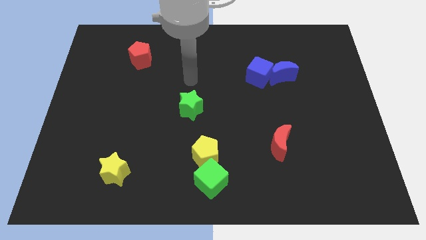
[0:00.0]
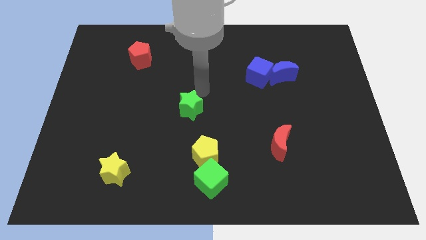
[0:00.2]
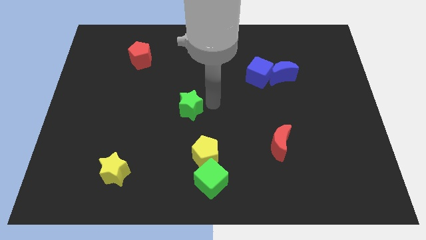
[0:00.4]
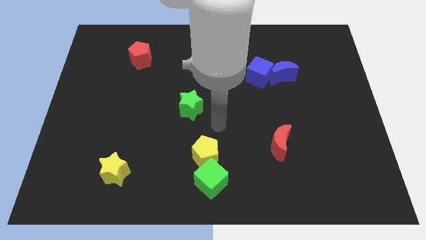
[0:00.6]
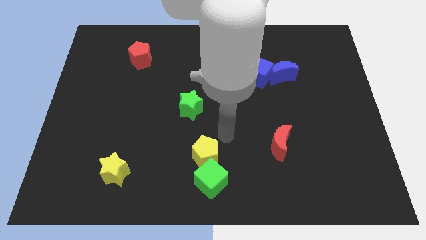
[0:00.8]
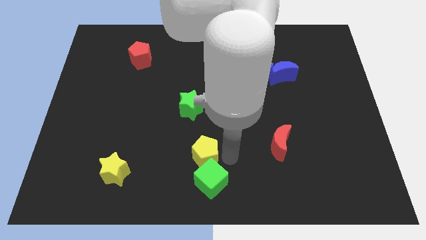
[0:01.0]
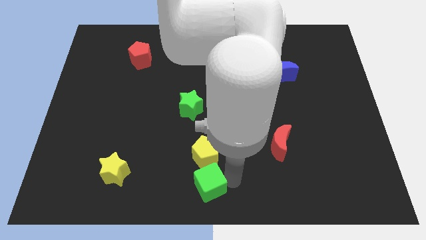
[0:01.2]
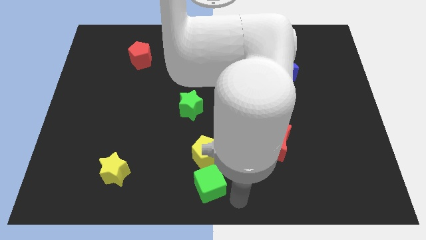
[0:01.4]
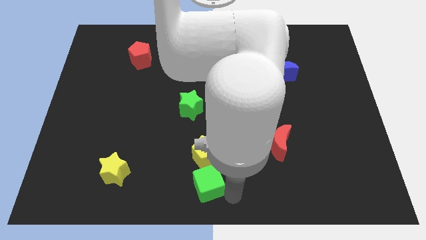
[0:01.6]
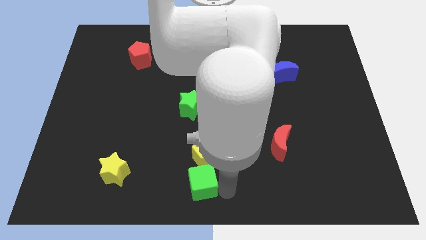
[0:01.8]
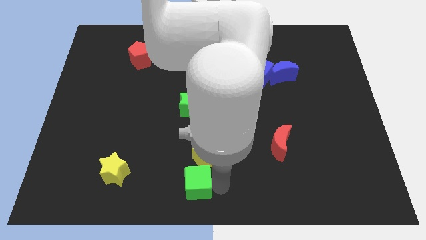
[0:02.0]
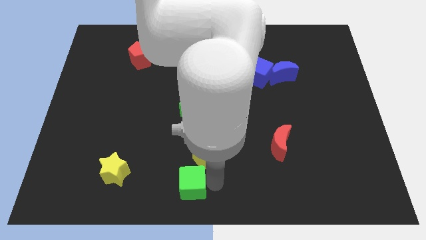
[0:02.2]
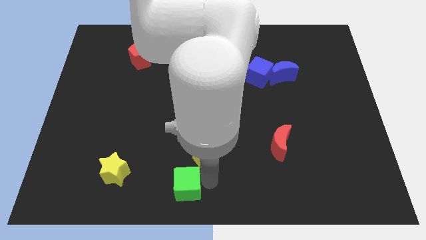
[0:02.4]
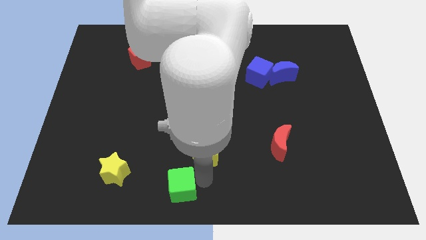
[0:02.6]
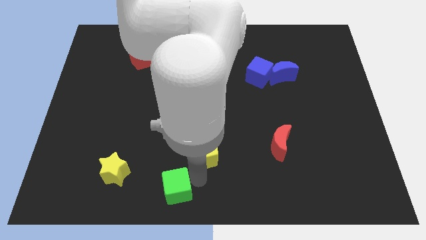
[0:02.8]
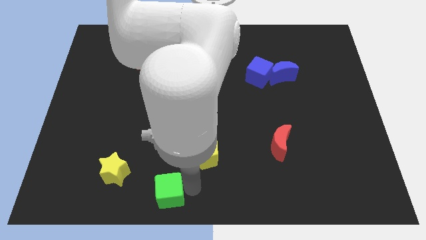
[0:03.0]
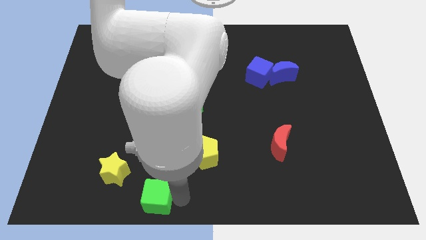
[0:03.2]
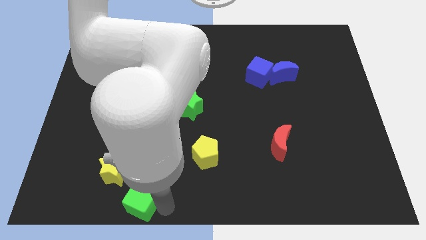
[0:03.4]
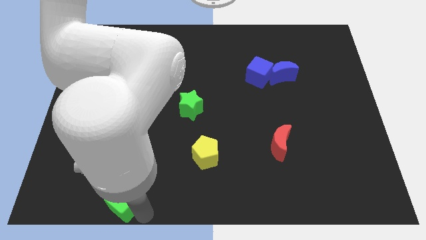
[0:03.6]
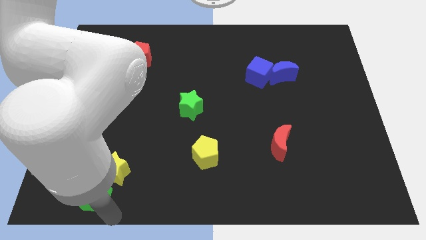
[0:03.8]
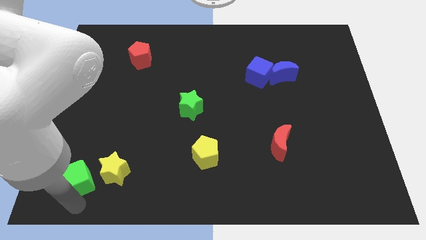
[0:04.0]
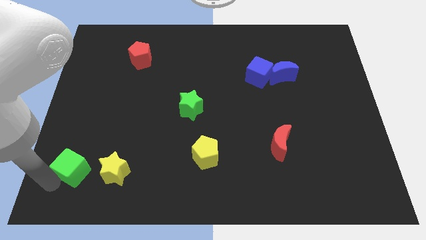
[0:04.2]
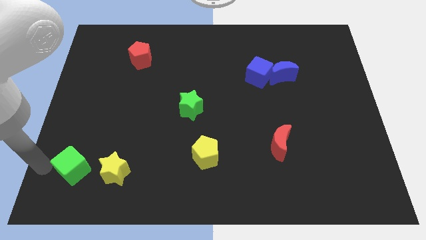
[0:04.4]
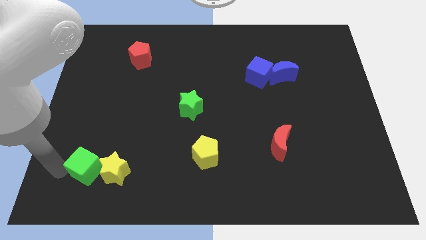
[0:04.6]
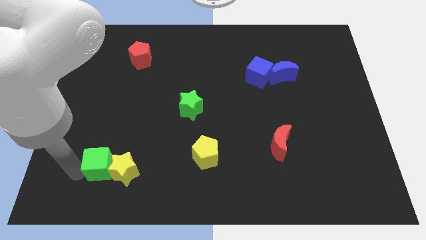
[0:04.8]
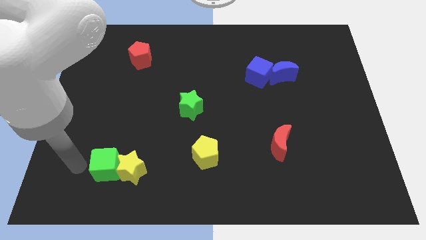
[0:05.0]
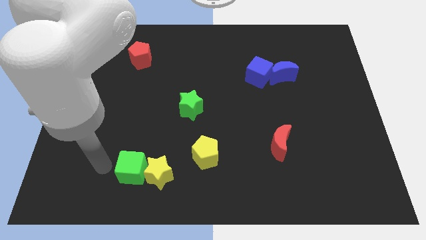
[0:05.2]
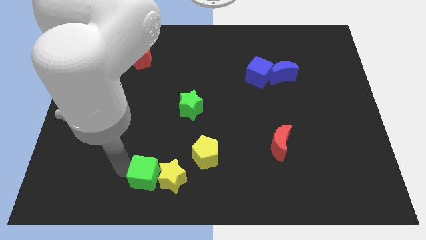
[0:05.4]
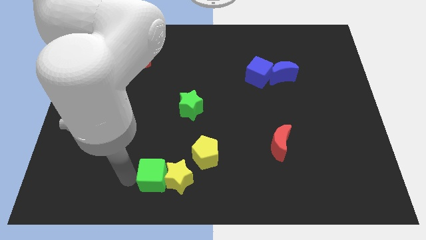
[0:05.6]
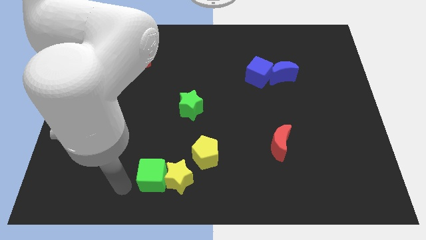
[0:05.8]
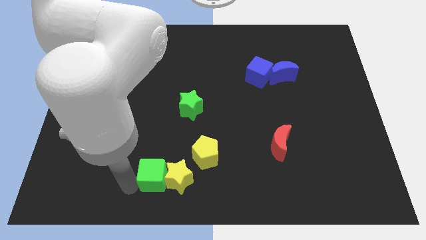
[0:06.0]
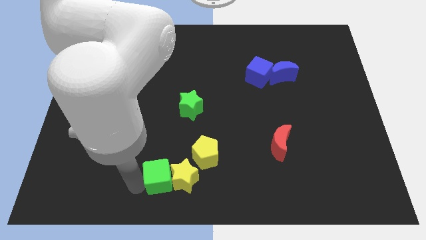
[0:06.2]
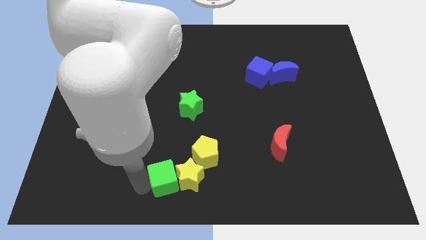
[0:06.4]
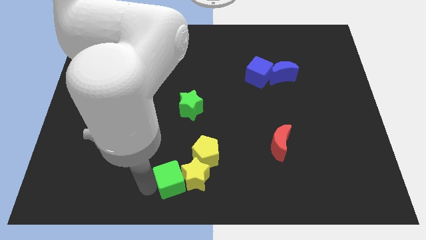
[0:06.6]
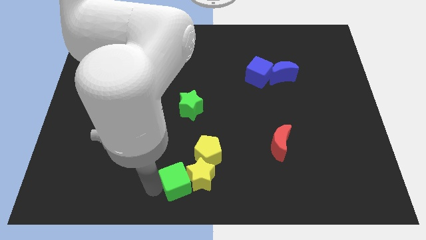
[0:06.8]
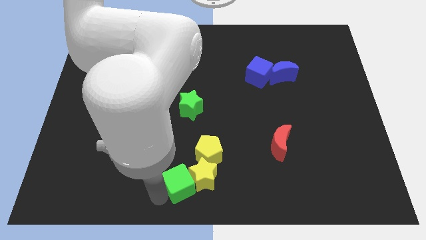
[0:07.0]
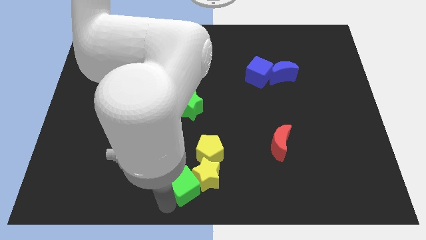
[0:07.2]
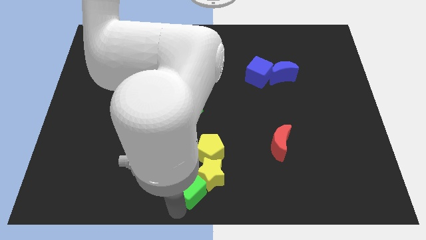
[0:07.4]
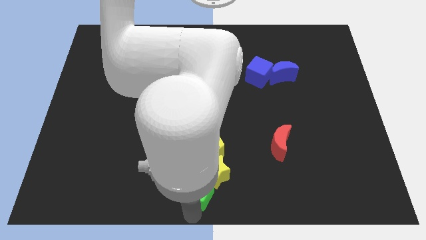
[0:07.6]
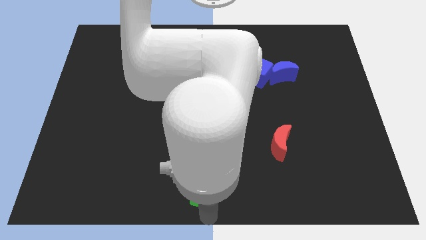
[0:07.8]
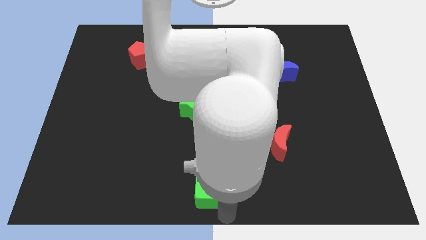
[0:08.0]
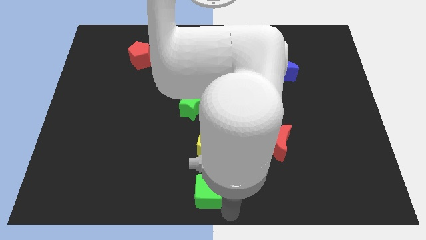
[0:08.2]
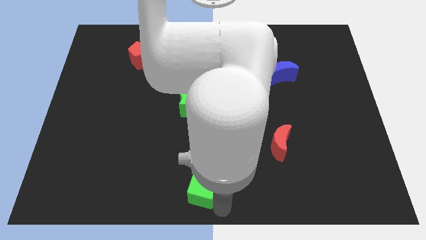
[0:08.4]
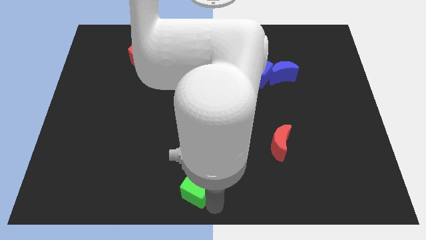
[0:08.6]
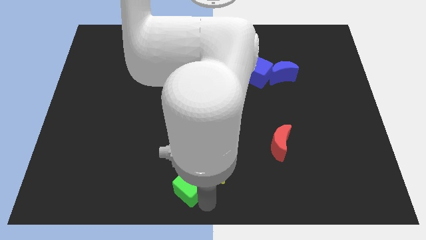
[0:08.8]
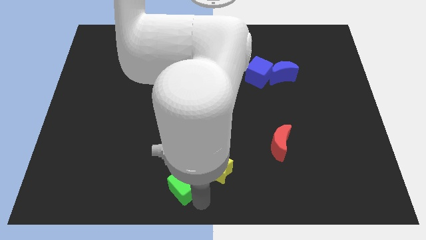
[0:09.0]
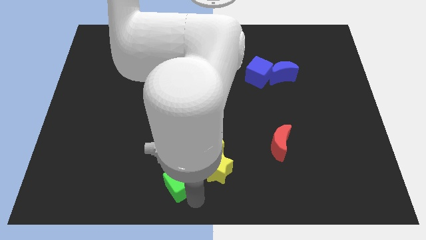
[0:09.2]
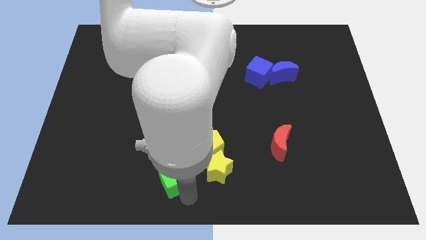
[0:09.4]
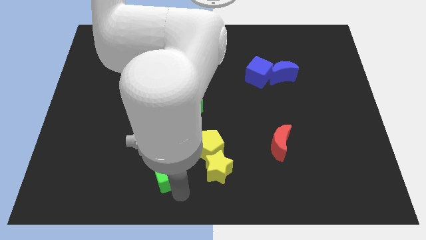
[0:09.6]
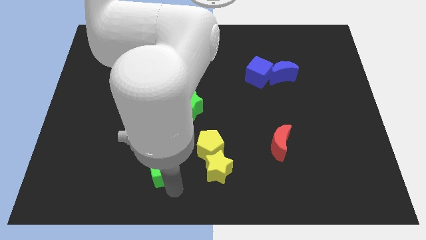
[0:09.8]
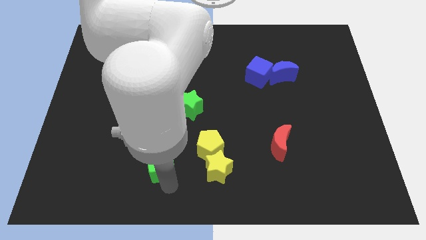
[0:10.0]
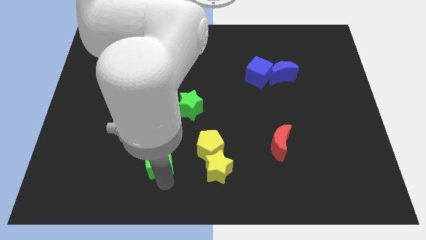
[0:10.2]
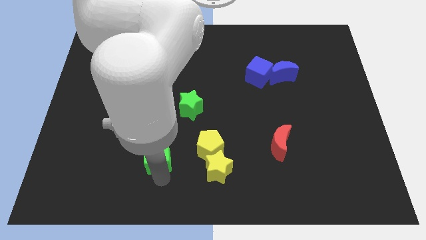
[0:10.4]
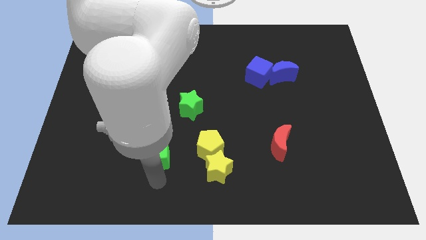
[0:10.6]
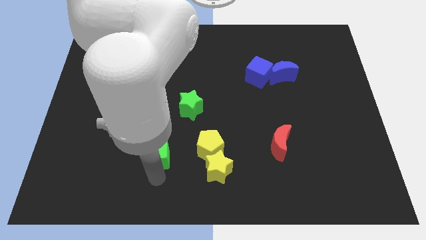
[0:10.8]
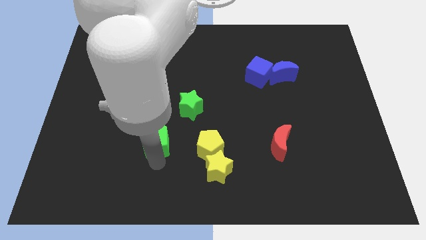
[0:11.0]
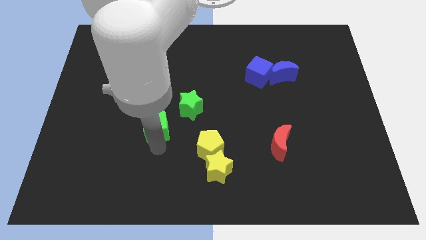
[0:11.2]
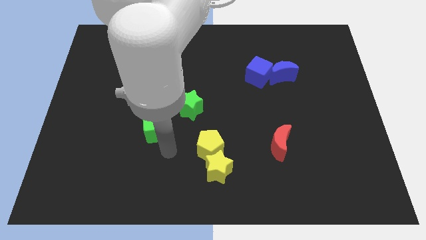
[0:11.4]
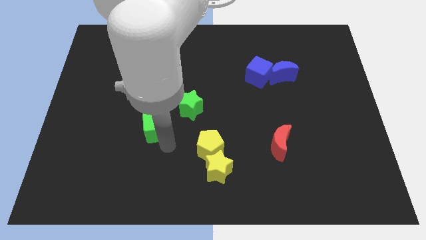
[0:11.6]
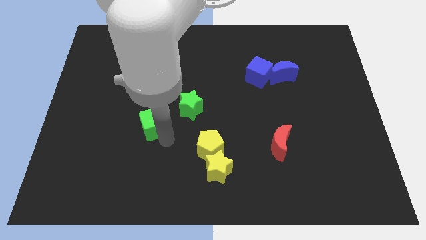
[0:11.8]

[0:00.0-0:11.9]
put the green cube just left of the green star
